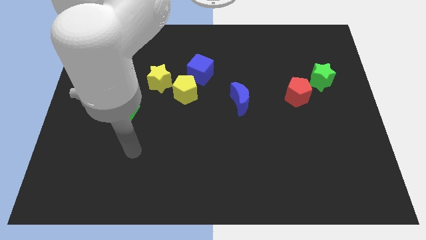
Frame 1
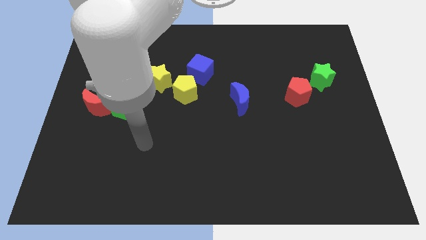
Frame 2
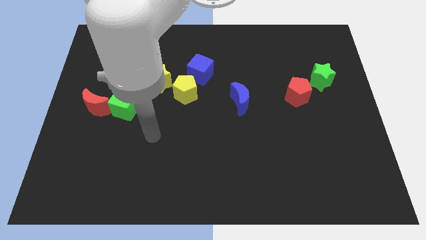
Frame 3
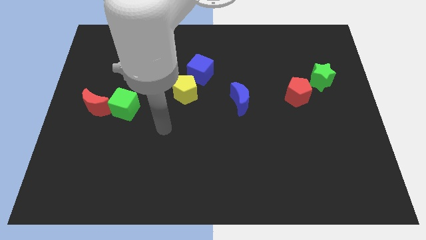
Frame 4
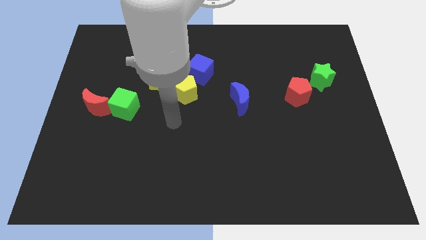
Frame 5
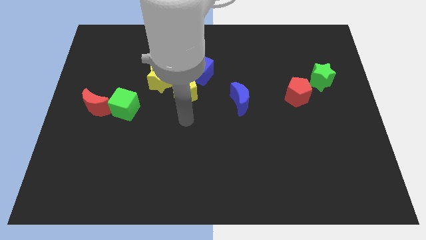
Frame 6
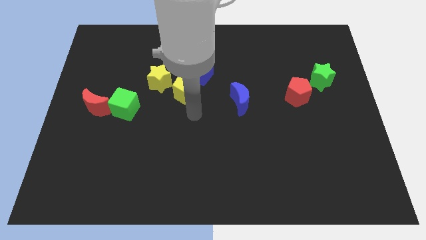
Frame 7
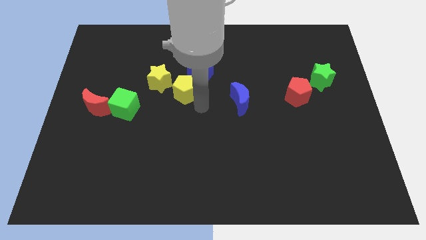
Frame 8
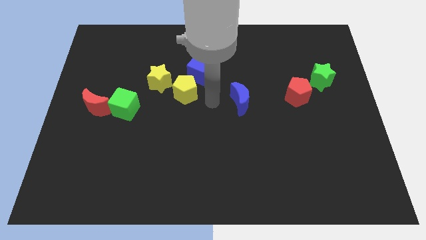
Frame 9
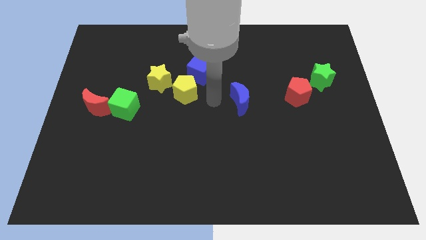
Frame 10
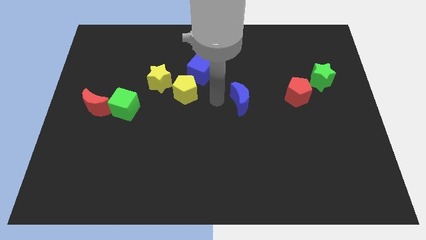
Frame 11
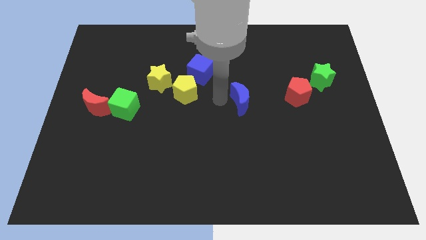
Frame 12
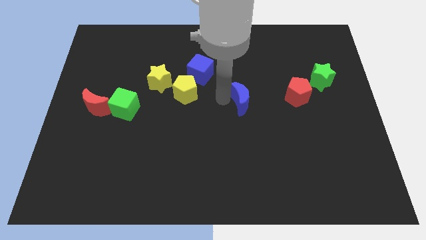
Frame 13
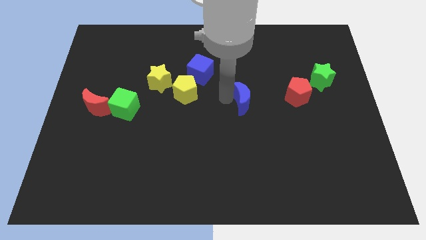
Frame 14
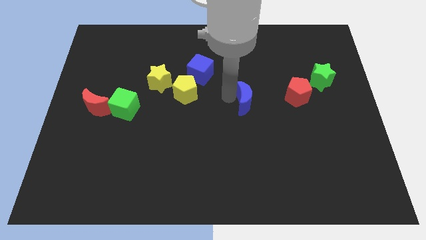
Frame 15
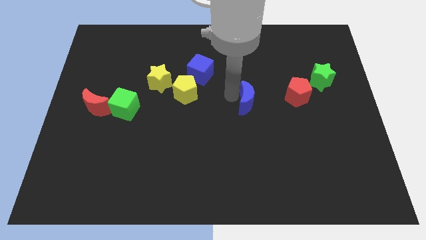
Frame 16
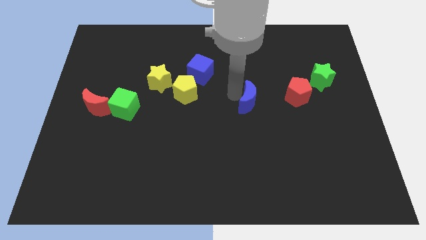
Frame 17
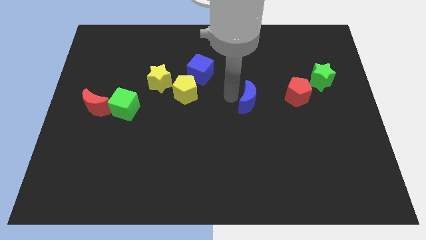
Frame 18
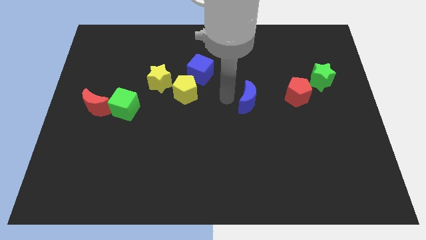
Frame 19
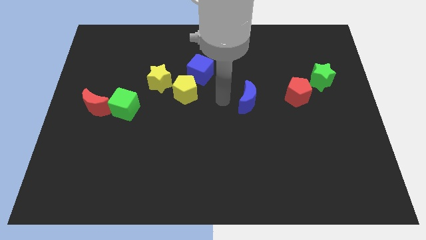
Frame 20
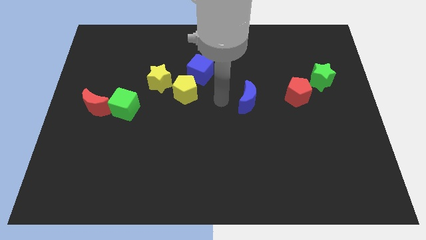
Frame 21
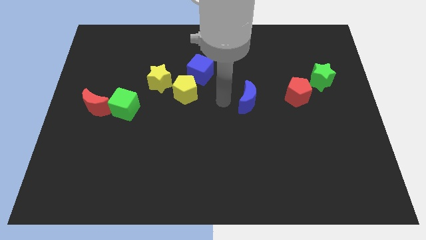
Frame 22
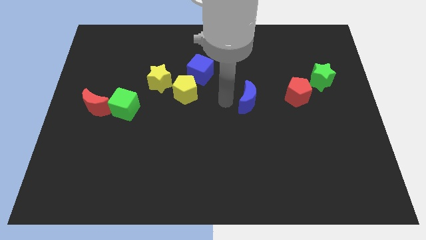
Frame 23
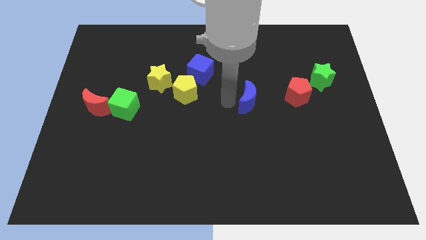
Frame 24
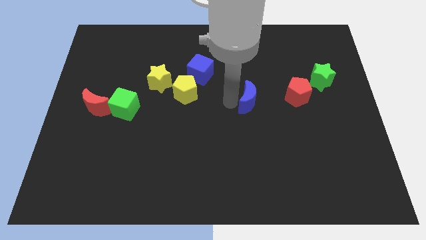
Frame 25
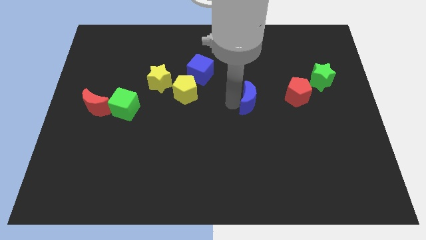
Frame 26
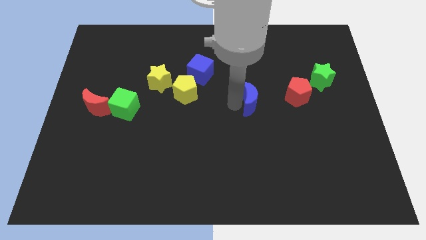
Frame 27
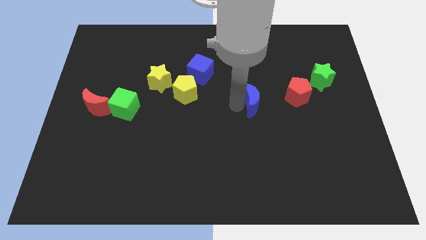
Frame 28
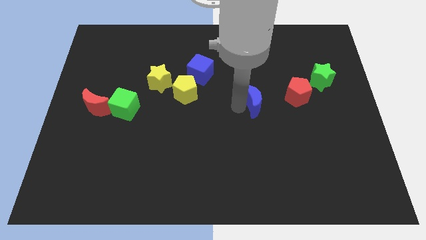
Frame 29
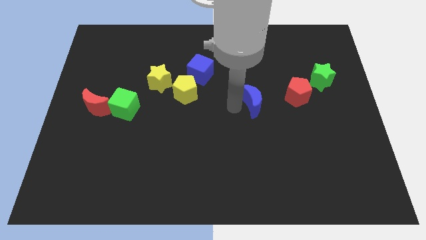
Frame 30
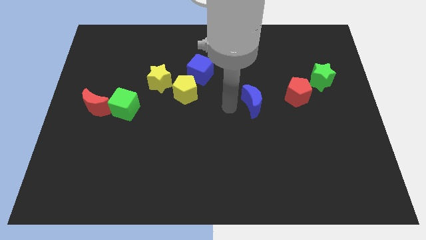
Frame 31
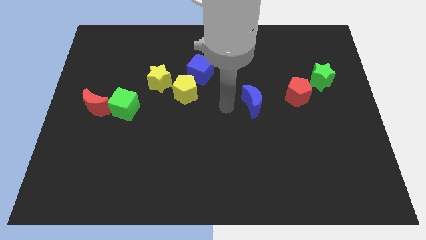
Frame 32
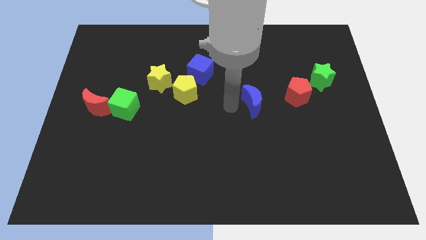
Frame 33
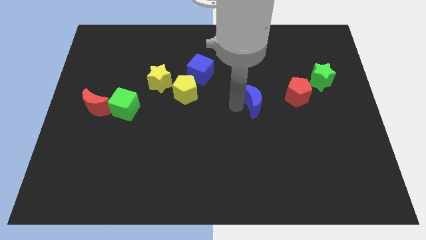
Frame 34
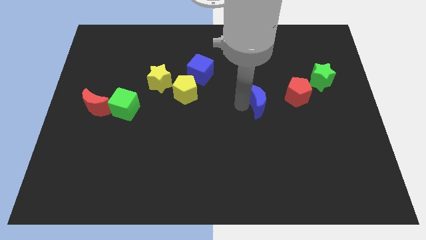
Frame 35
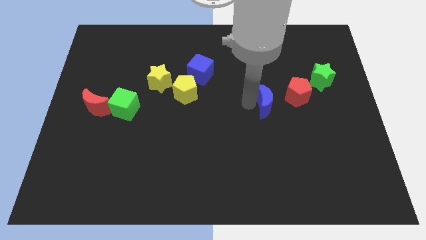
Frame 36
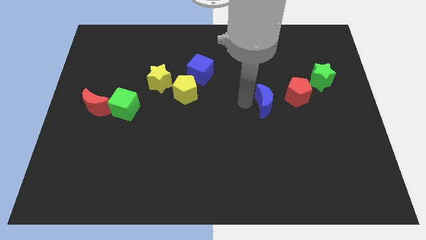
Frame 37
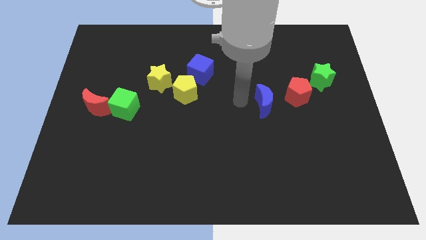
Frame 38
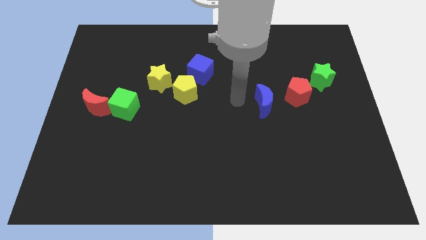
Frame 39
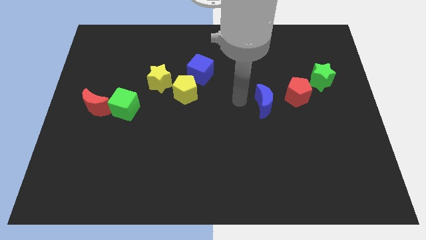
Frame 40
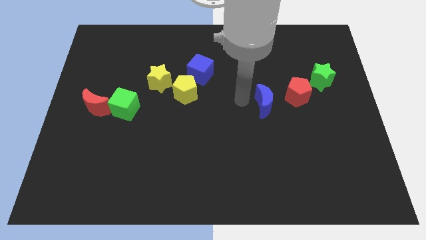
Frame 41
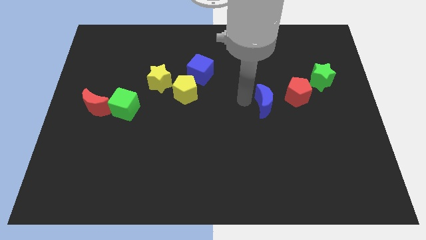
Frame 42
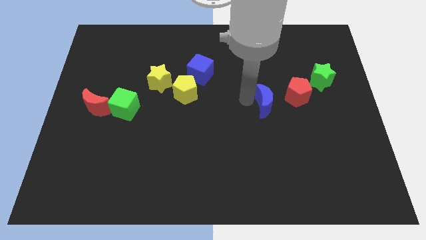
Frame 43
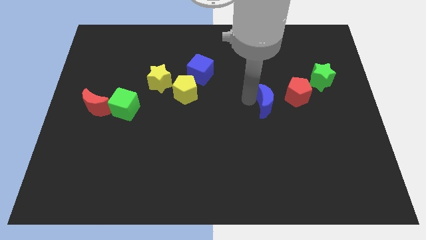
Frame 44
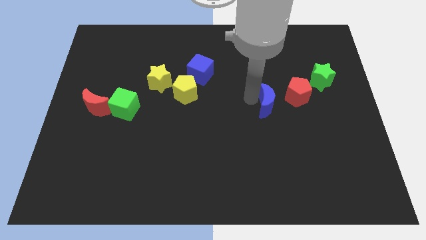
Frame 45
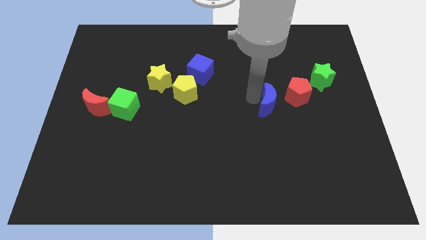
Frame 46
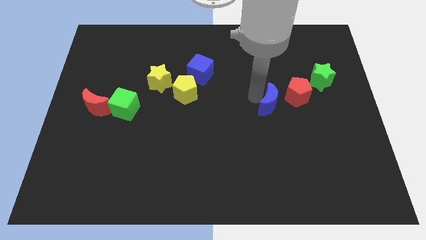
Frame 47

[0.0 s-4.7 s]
slide the blue moon a little bit right

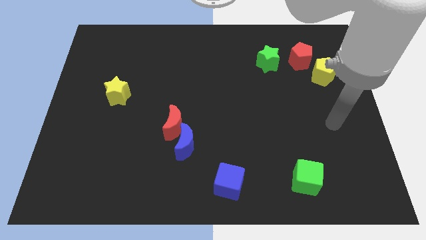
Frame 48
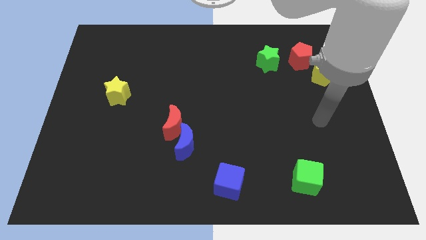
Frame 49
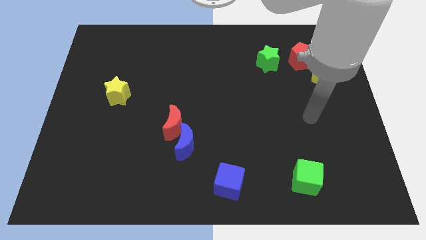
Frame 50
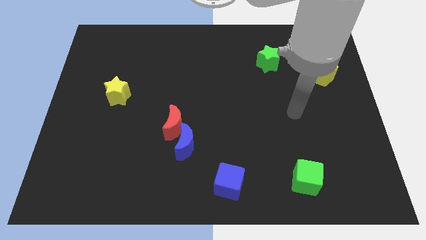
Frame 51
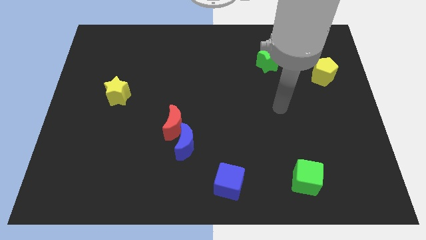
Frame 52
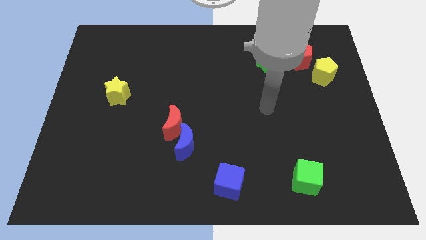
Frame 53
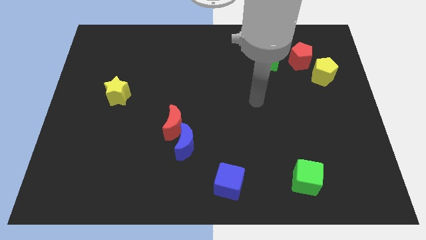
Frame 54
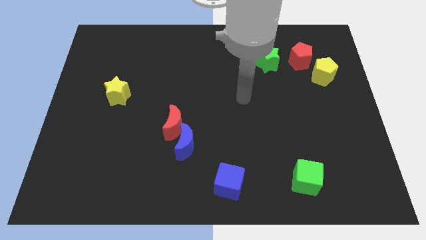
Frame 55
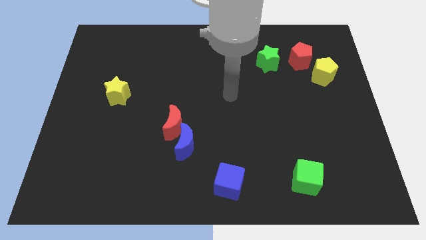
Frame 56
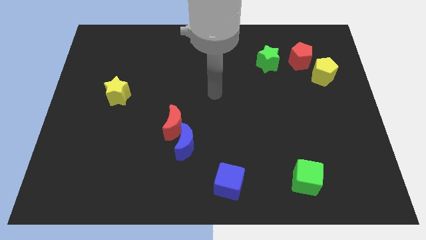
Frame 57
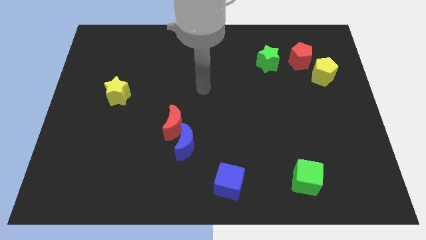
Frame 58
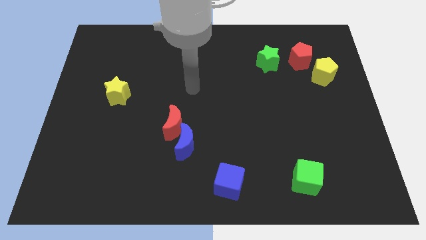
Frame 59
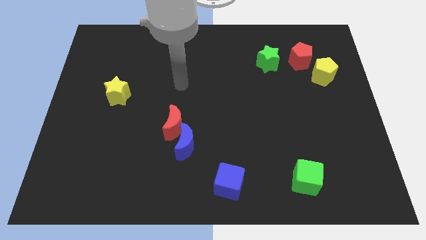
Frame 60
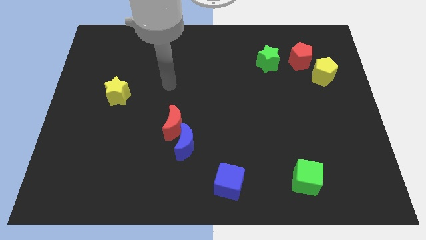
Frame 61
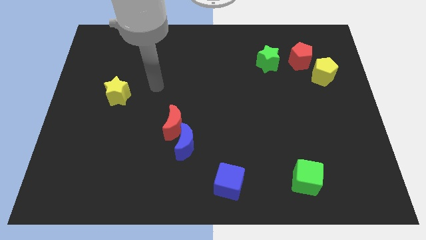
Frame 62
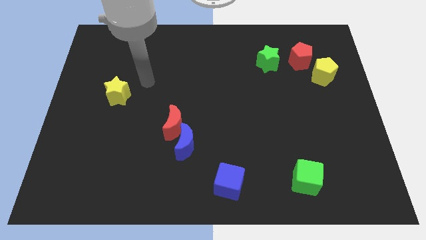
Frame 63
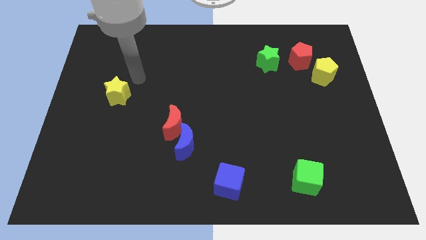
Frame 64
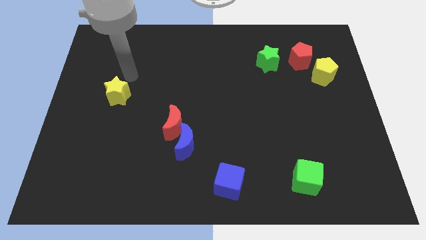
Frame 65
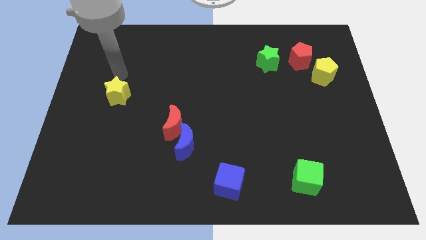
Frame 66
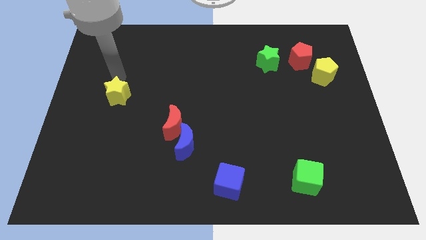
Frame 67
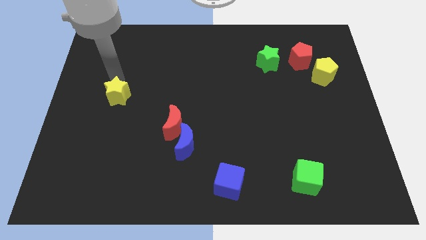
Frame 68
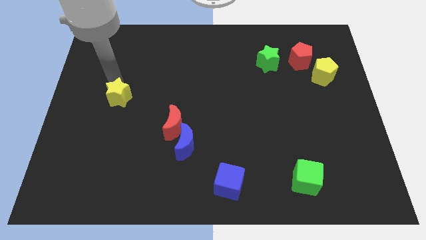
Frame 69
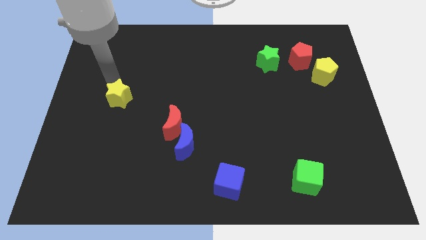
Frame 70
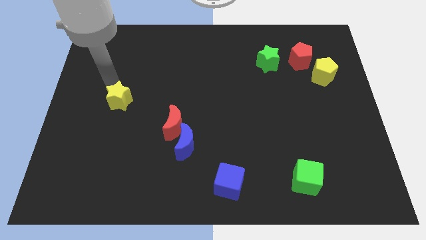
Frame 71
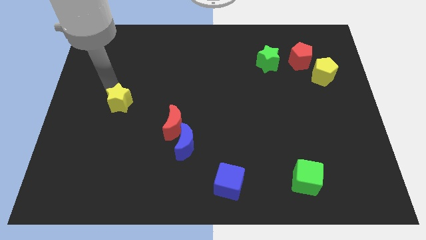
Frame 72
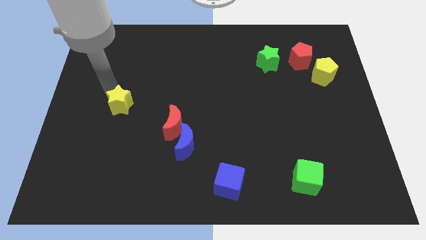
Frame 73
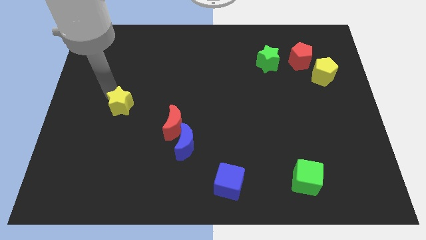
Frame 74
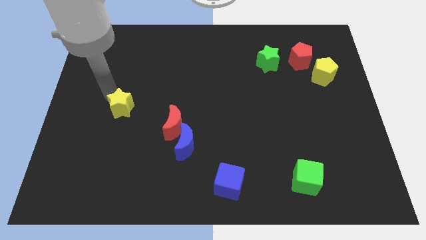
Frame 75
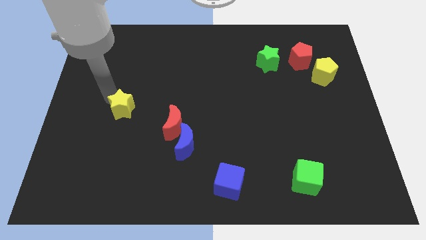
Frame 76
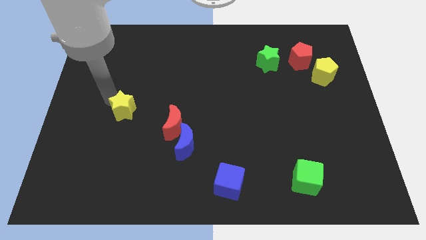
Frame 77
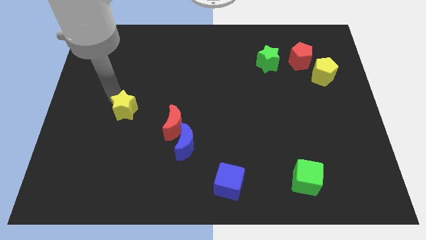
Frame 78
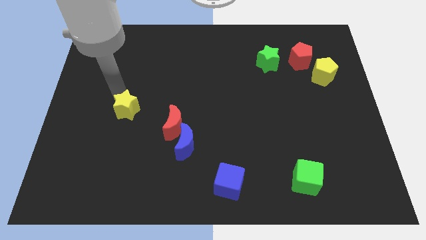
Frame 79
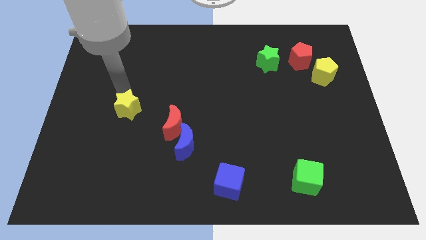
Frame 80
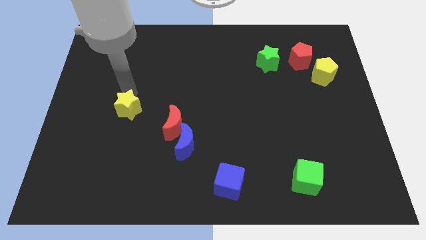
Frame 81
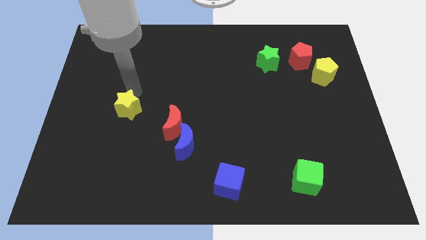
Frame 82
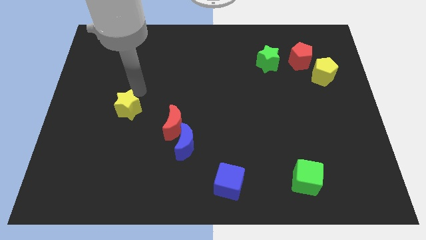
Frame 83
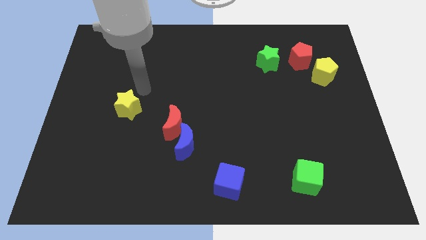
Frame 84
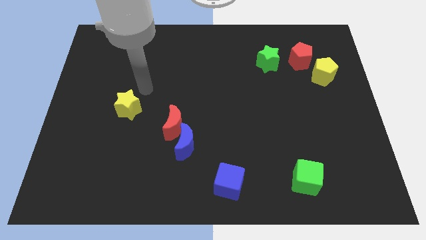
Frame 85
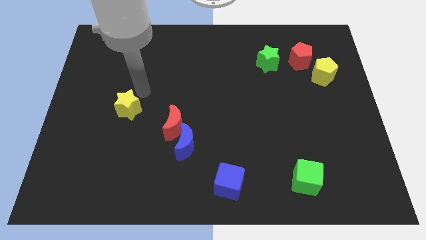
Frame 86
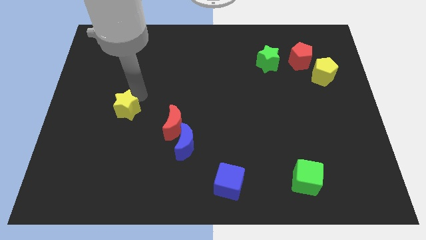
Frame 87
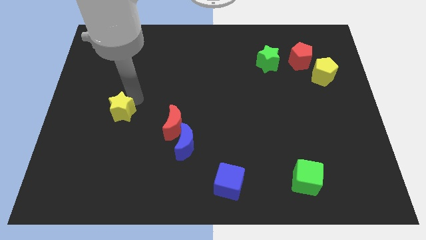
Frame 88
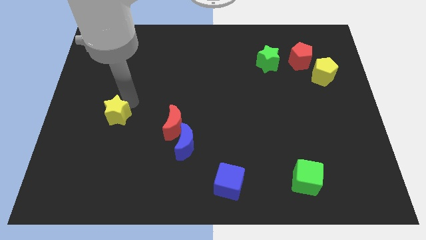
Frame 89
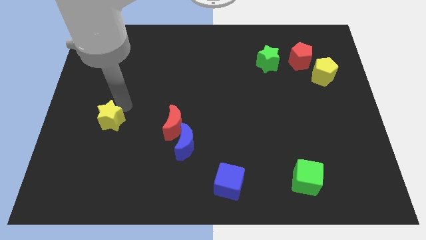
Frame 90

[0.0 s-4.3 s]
push the yellow star a bit down
